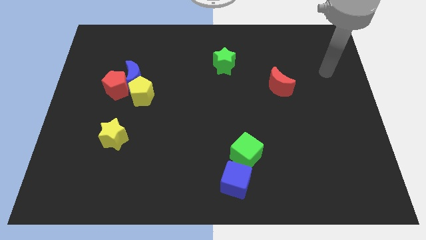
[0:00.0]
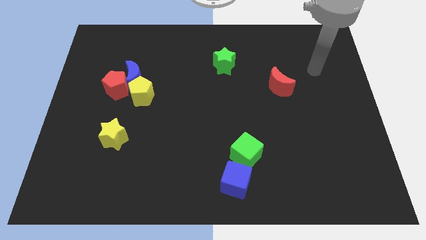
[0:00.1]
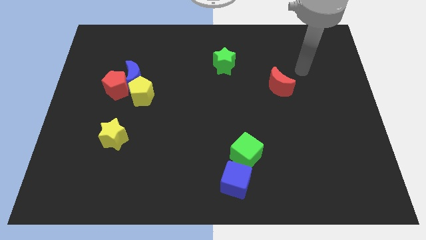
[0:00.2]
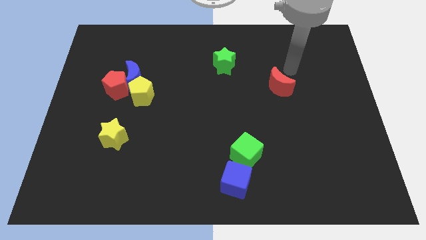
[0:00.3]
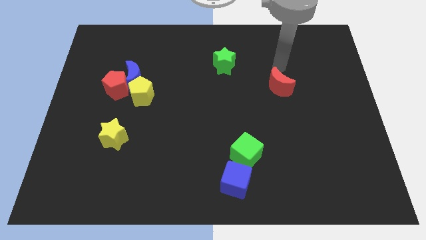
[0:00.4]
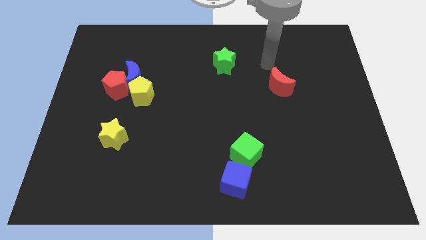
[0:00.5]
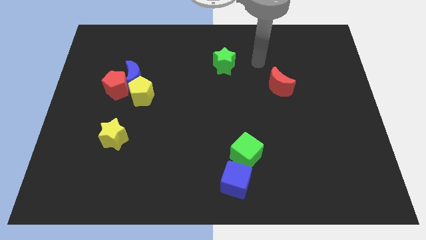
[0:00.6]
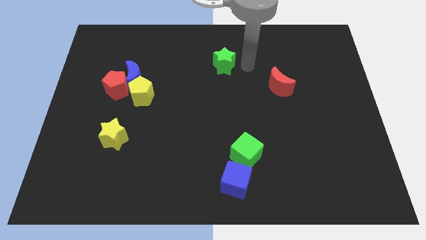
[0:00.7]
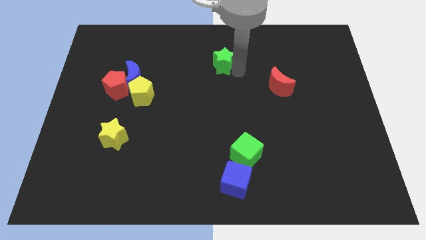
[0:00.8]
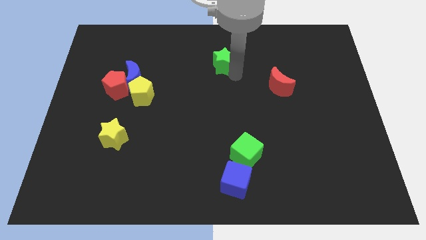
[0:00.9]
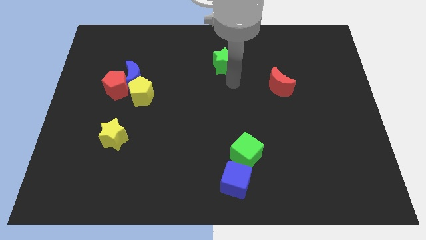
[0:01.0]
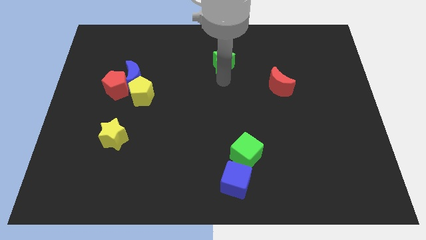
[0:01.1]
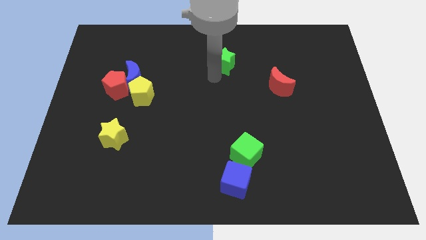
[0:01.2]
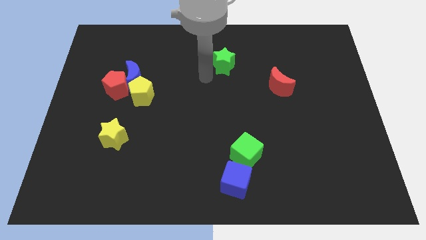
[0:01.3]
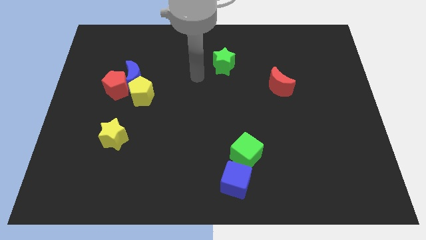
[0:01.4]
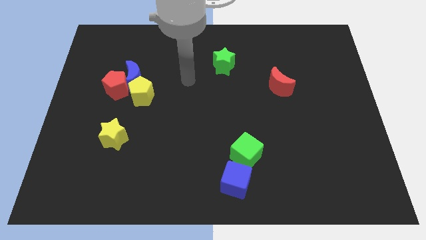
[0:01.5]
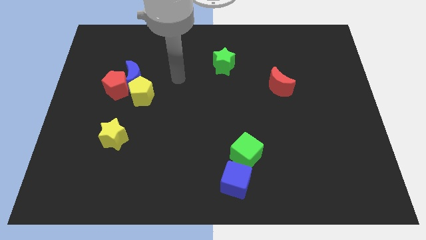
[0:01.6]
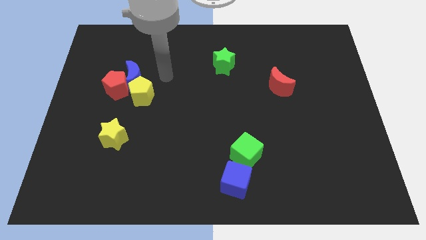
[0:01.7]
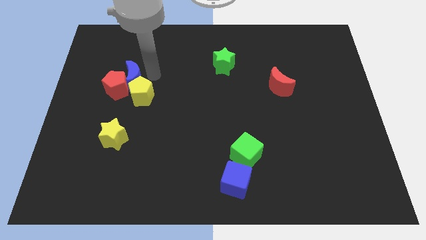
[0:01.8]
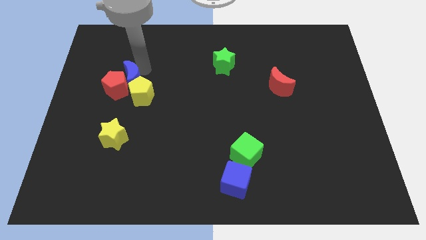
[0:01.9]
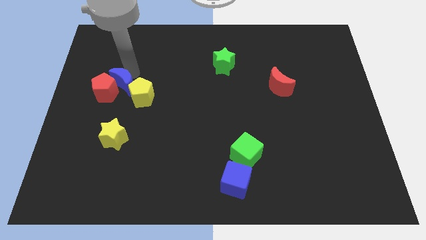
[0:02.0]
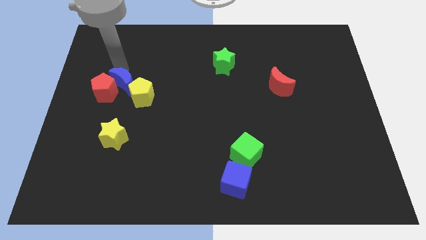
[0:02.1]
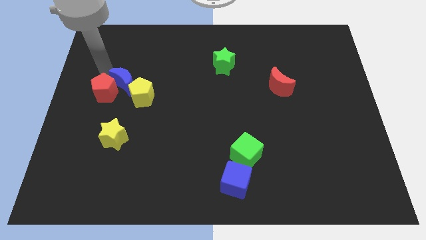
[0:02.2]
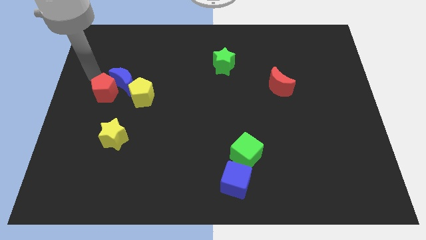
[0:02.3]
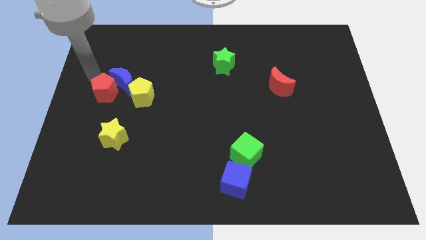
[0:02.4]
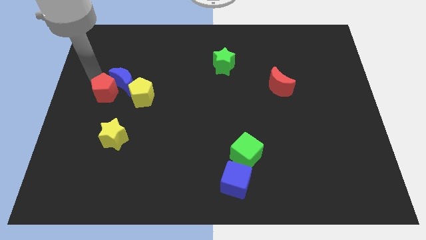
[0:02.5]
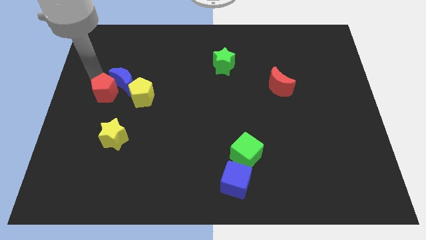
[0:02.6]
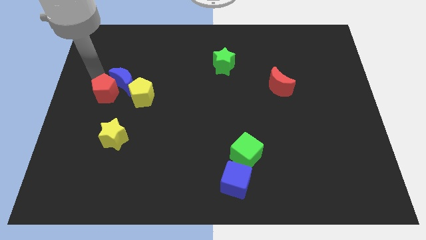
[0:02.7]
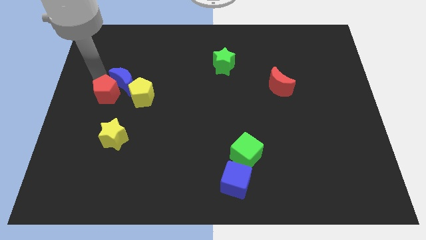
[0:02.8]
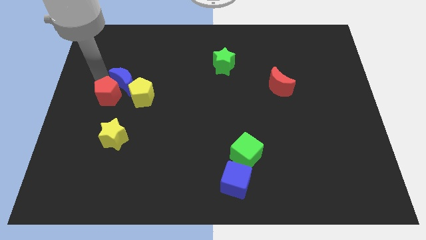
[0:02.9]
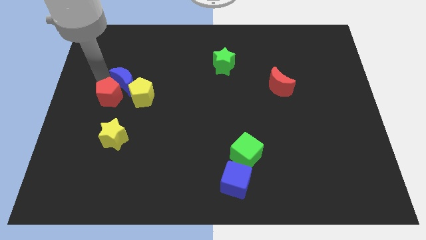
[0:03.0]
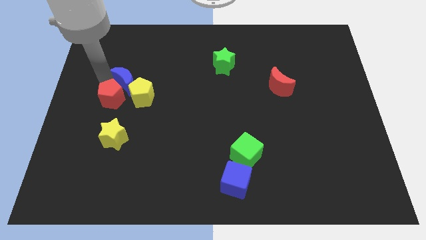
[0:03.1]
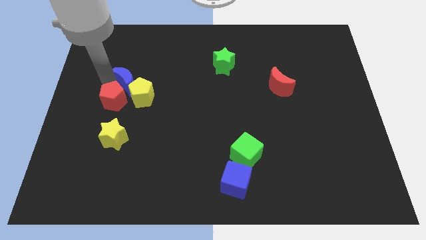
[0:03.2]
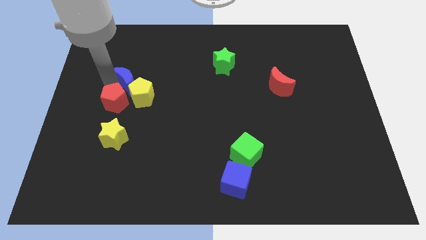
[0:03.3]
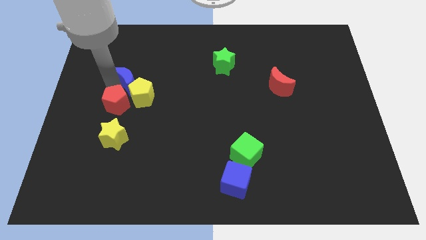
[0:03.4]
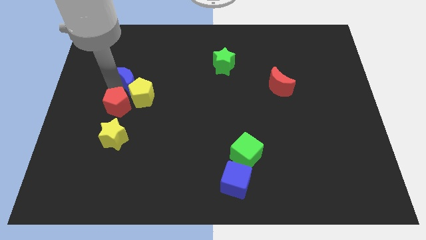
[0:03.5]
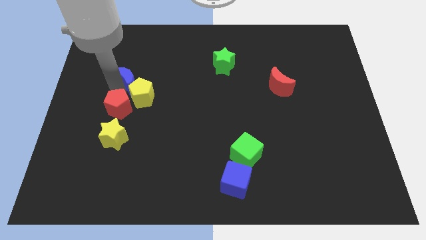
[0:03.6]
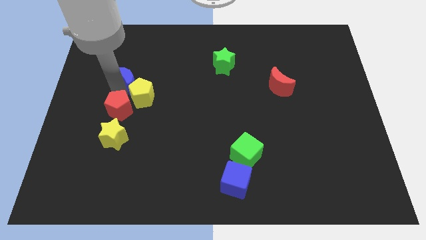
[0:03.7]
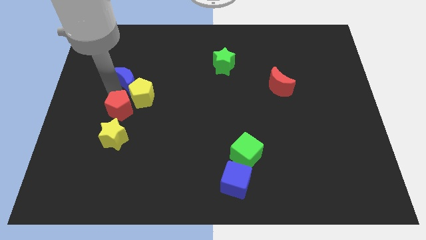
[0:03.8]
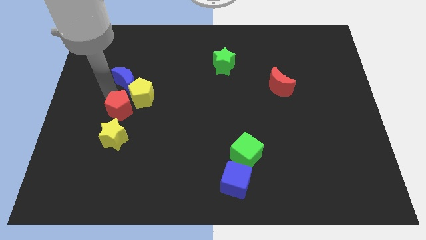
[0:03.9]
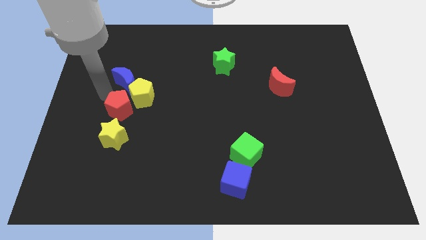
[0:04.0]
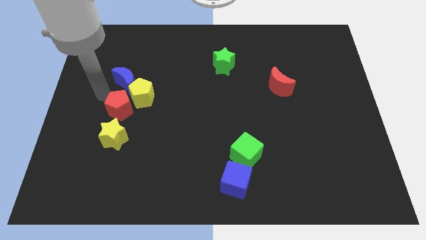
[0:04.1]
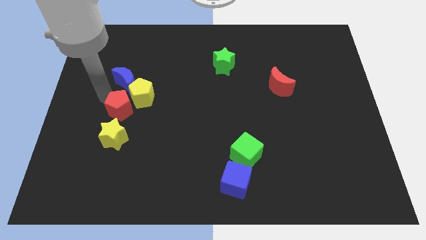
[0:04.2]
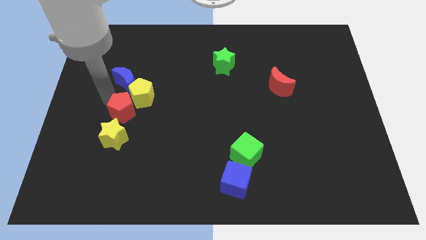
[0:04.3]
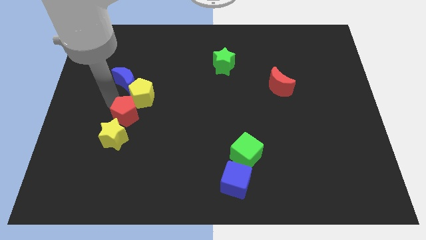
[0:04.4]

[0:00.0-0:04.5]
slightly push the red pentagon down and to the right diagonally

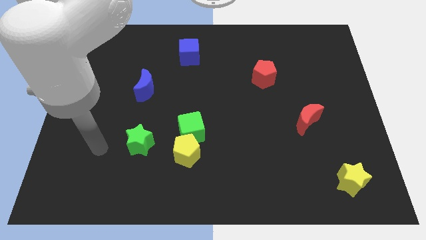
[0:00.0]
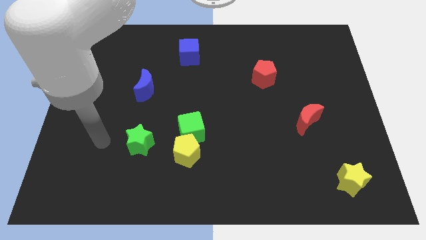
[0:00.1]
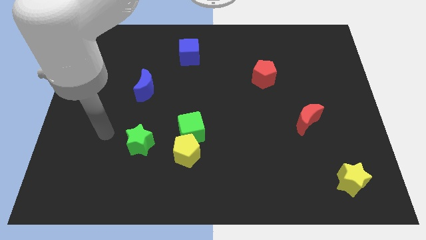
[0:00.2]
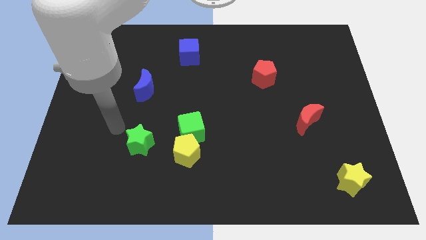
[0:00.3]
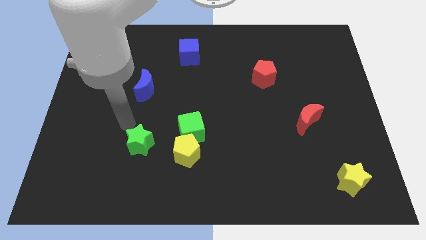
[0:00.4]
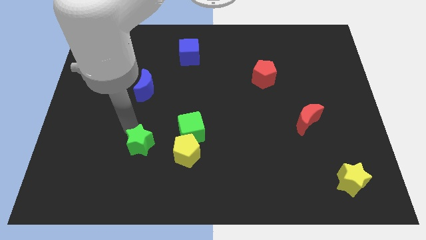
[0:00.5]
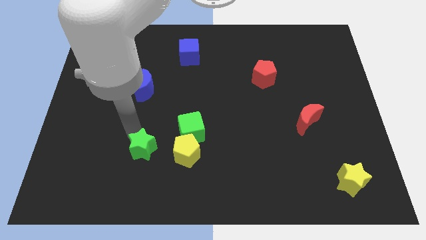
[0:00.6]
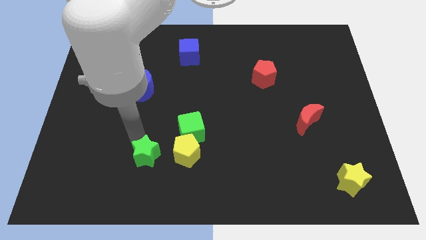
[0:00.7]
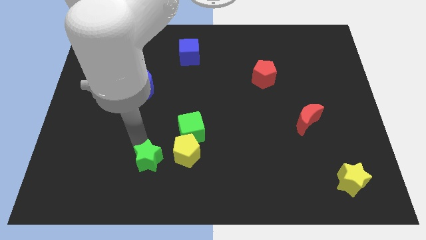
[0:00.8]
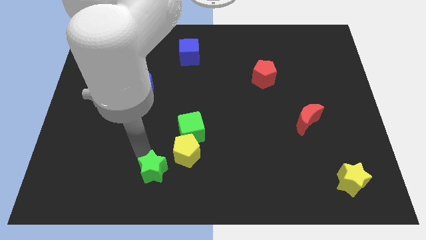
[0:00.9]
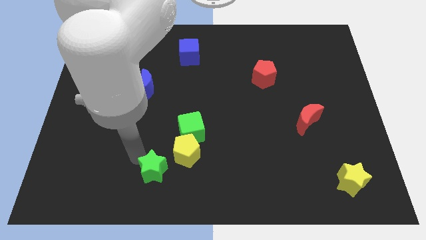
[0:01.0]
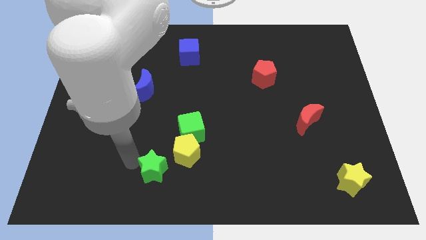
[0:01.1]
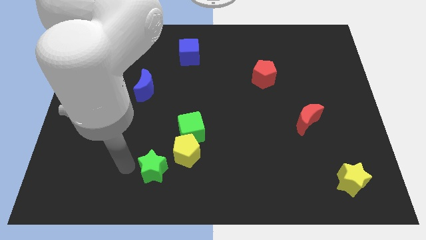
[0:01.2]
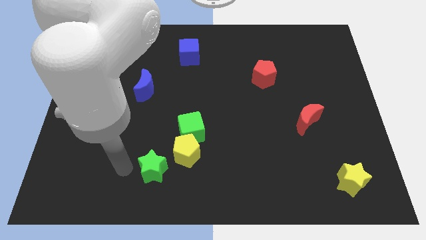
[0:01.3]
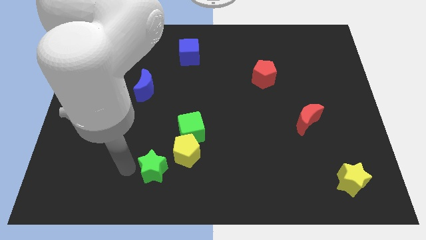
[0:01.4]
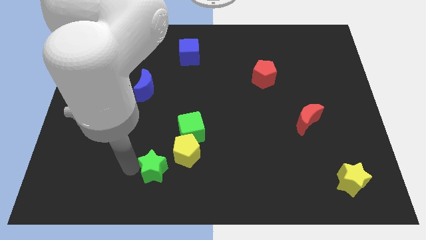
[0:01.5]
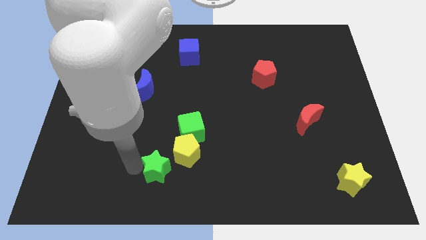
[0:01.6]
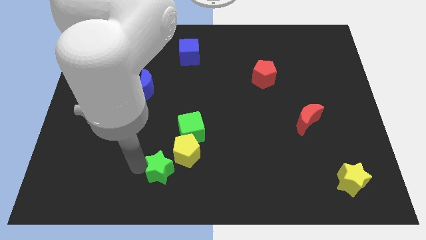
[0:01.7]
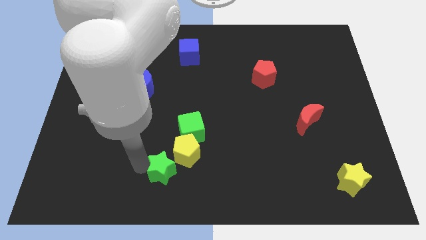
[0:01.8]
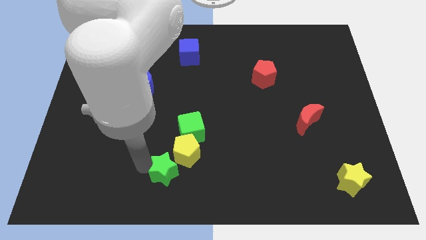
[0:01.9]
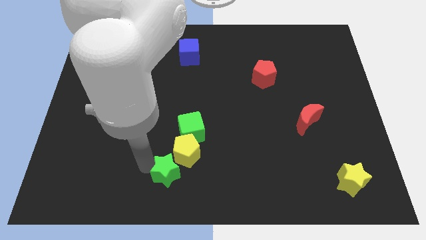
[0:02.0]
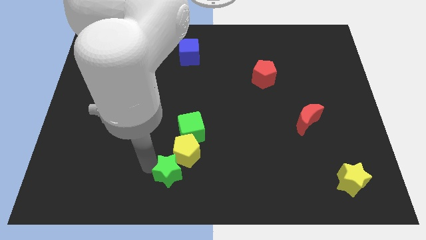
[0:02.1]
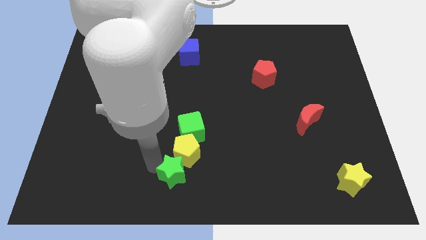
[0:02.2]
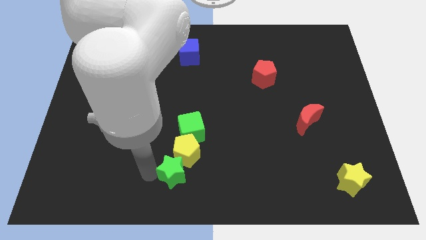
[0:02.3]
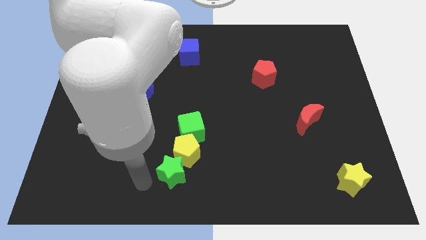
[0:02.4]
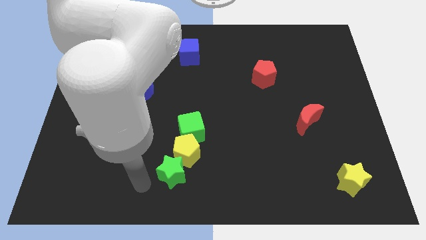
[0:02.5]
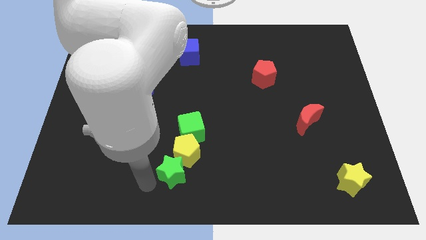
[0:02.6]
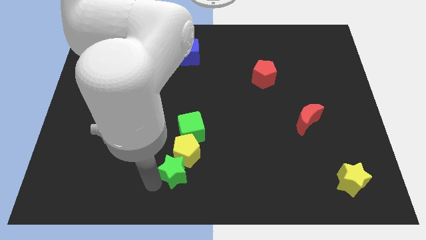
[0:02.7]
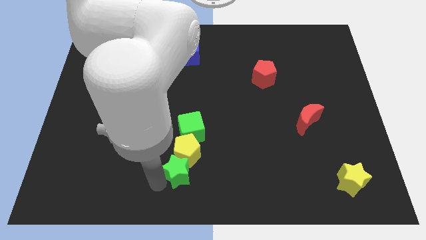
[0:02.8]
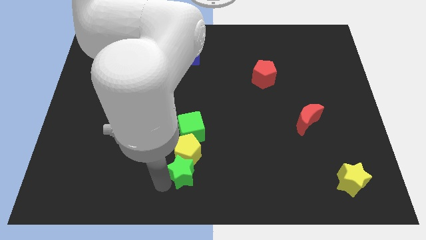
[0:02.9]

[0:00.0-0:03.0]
push the green star right a bit

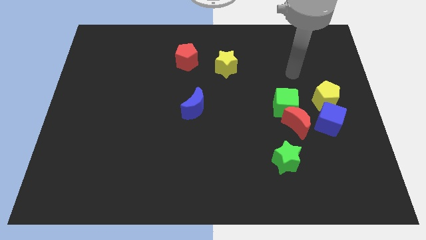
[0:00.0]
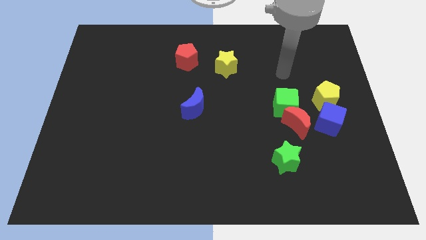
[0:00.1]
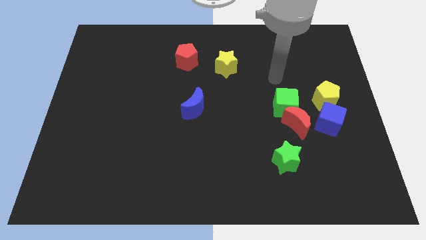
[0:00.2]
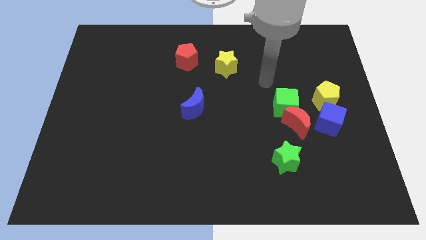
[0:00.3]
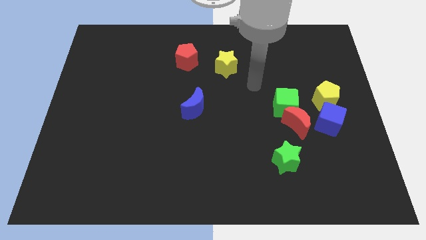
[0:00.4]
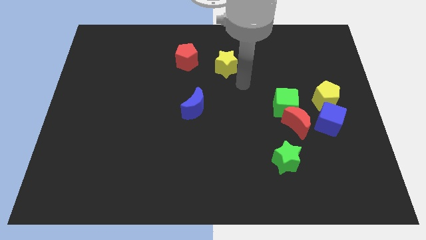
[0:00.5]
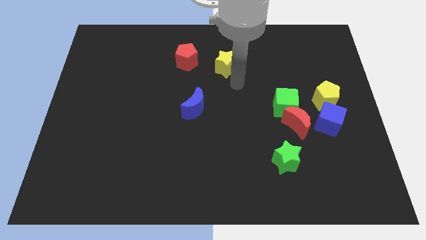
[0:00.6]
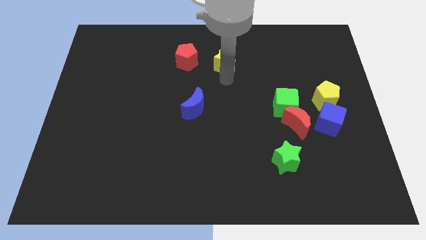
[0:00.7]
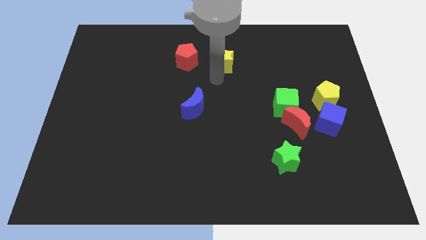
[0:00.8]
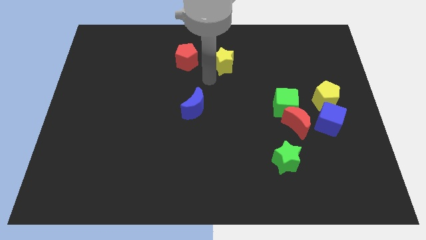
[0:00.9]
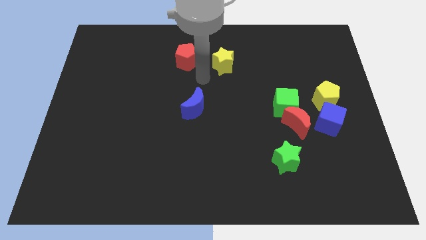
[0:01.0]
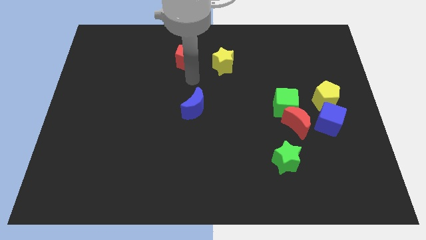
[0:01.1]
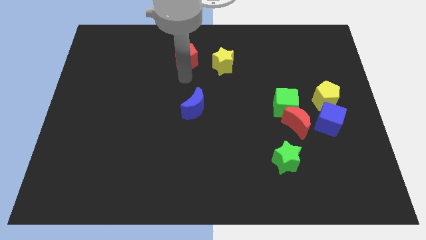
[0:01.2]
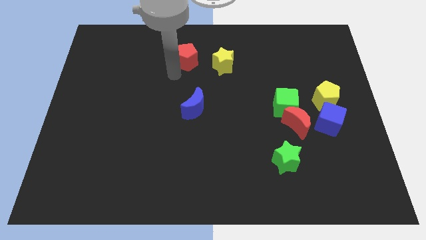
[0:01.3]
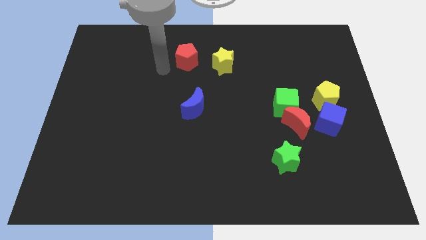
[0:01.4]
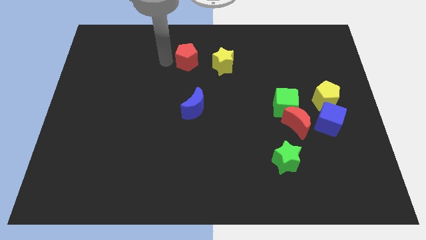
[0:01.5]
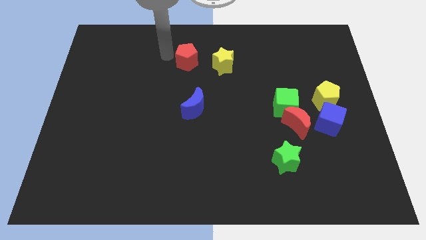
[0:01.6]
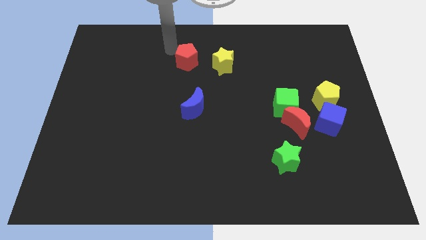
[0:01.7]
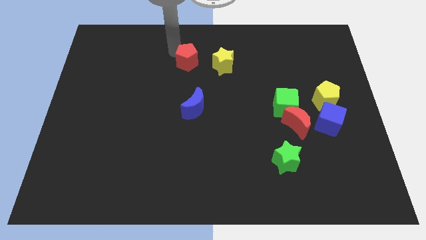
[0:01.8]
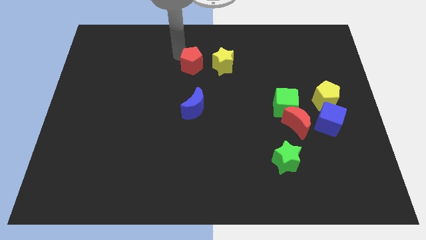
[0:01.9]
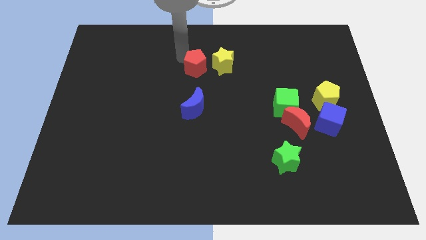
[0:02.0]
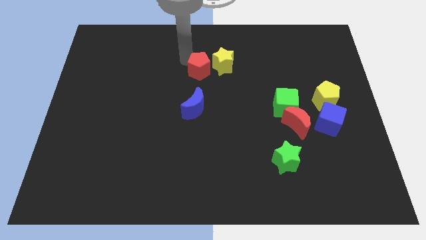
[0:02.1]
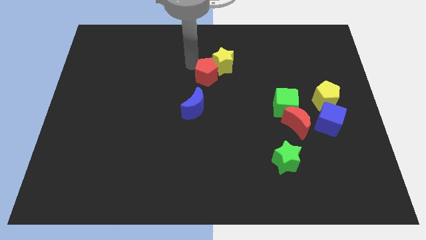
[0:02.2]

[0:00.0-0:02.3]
slide the red pentagon downwards and then to the right a bit
